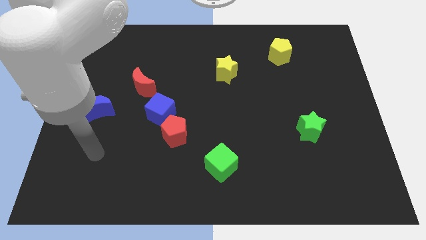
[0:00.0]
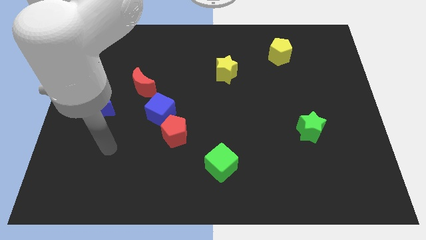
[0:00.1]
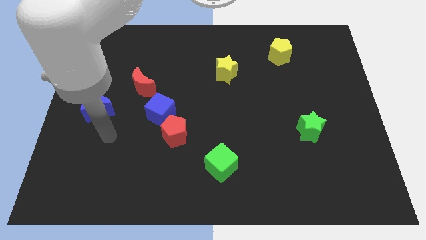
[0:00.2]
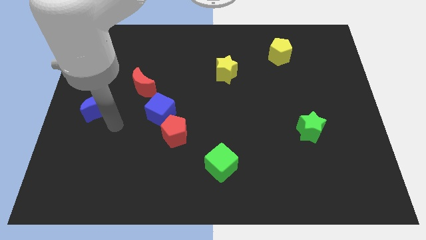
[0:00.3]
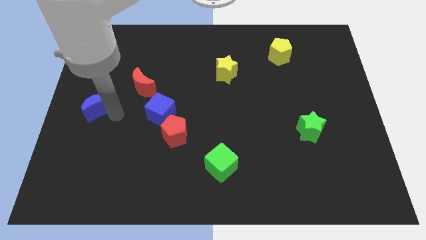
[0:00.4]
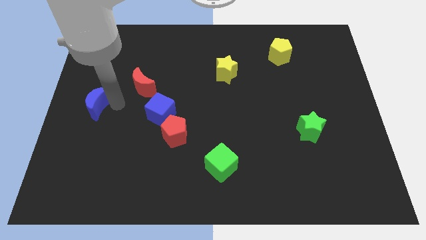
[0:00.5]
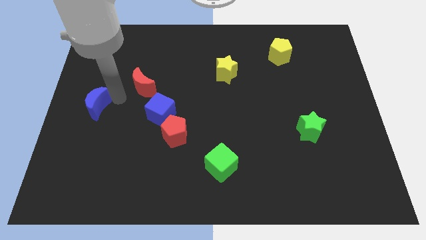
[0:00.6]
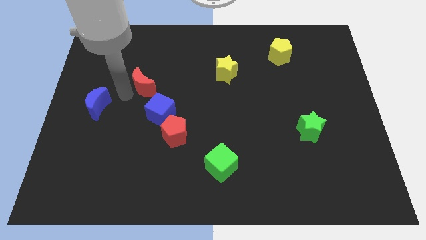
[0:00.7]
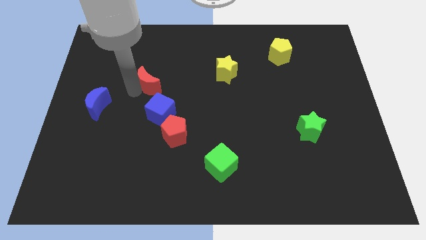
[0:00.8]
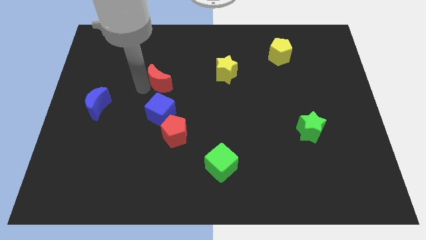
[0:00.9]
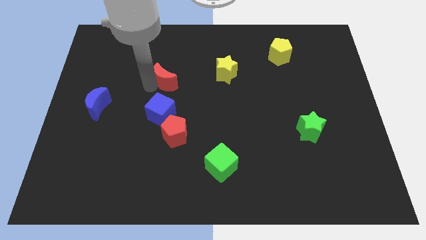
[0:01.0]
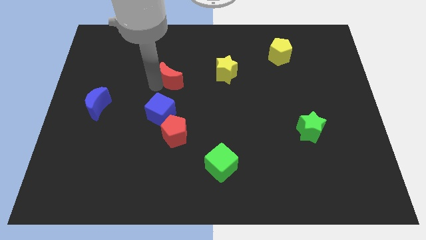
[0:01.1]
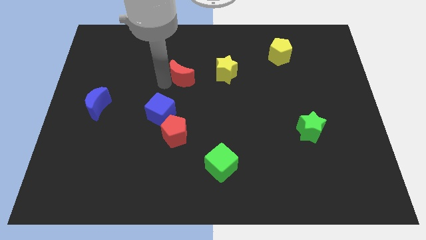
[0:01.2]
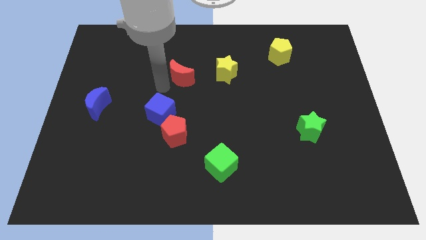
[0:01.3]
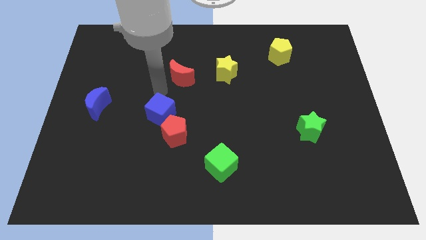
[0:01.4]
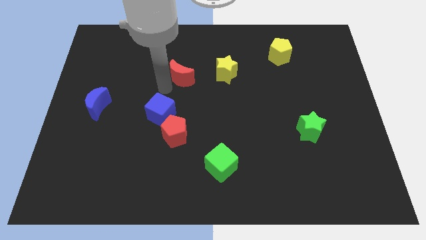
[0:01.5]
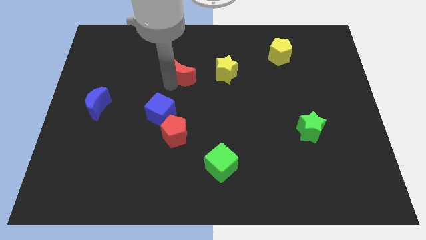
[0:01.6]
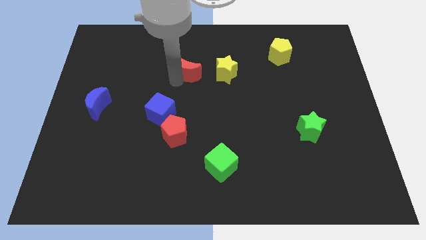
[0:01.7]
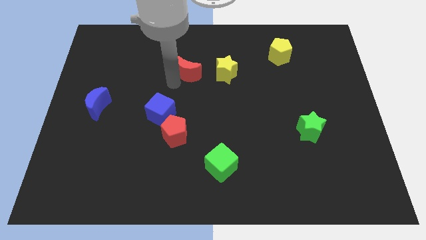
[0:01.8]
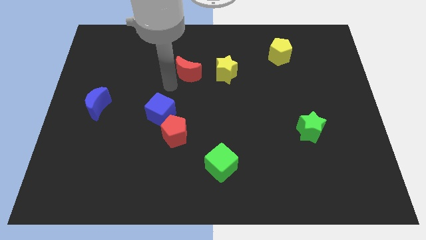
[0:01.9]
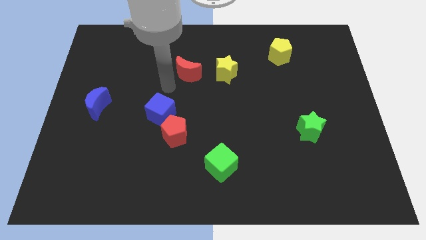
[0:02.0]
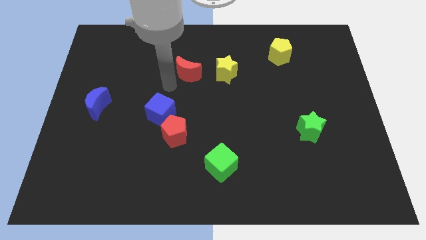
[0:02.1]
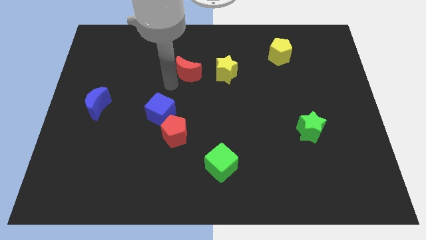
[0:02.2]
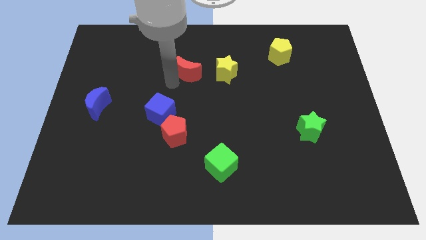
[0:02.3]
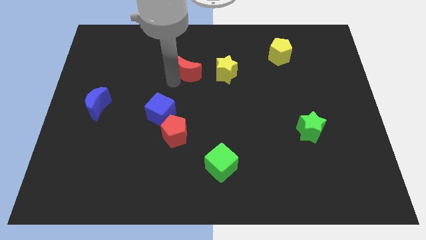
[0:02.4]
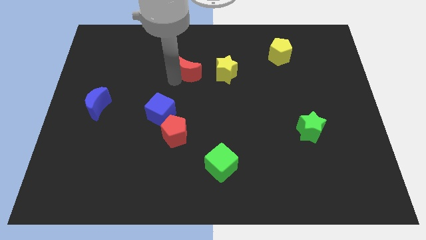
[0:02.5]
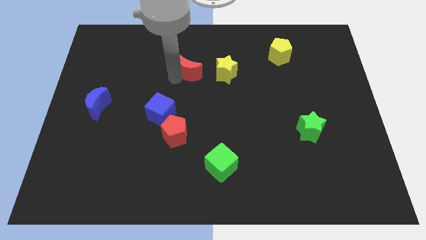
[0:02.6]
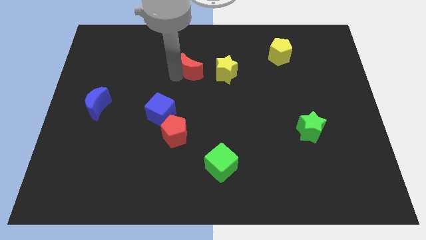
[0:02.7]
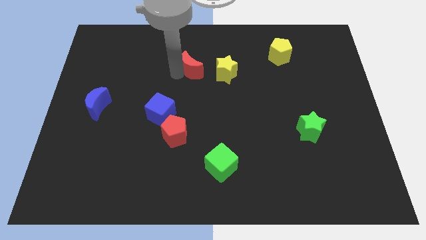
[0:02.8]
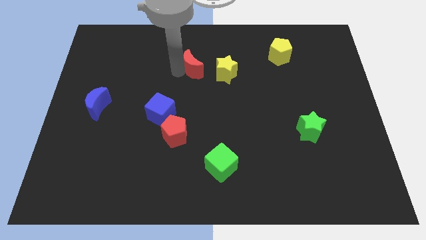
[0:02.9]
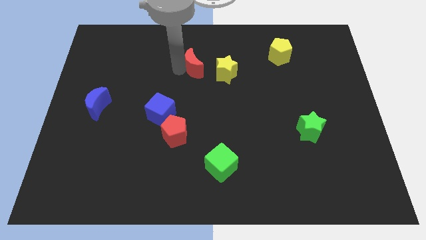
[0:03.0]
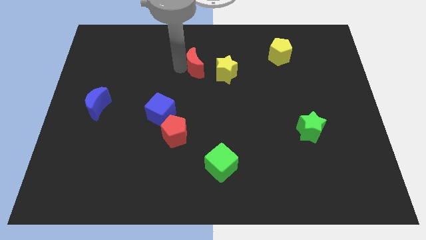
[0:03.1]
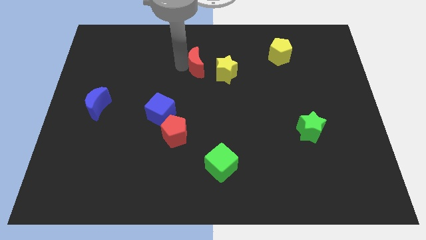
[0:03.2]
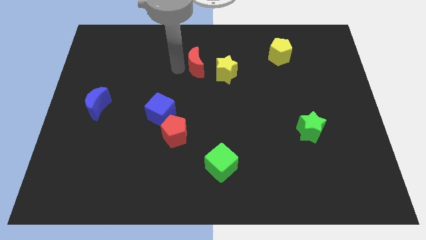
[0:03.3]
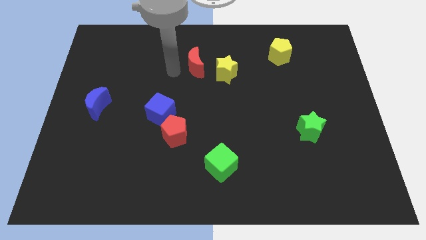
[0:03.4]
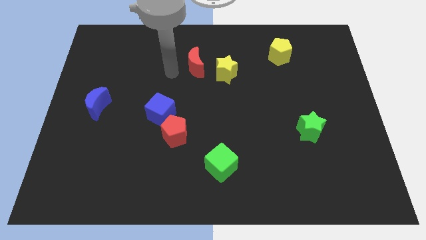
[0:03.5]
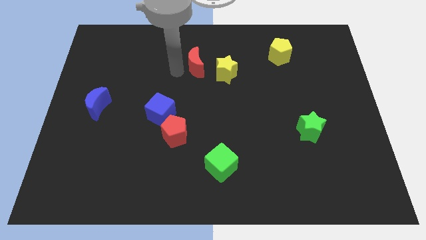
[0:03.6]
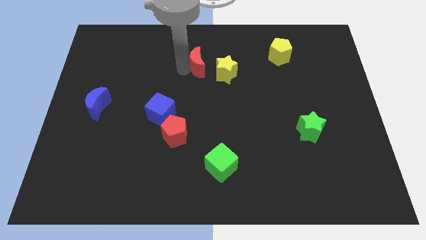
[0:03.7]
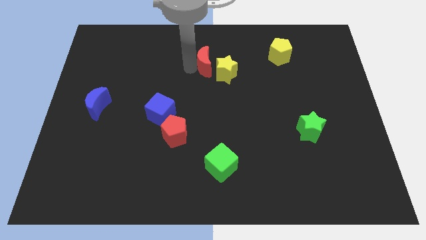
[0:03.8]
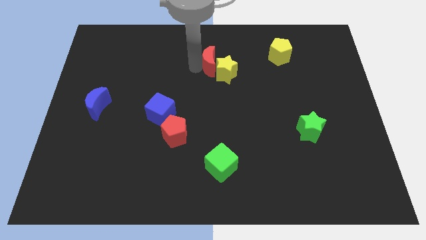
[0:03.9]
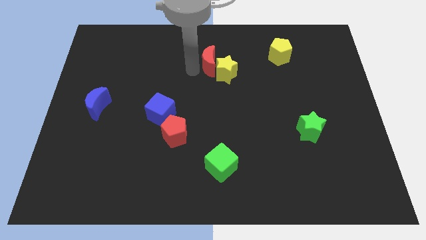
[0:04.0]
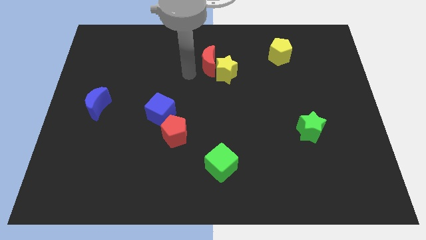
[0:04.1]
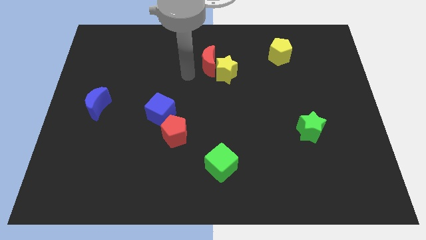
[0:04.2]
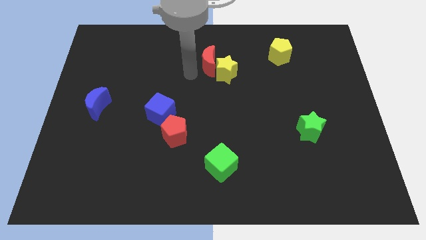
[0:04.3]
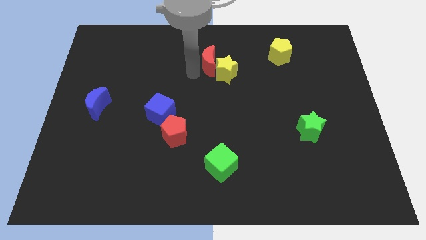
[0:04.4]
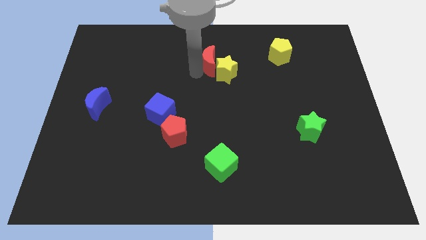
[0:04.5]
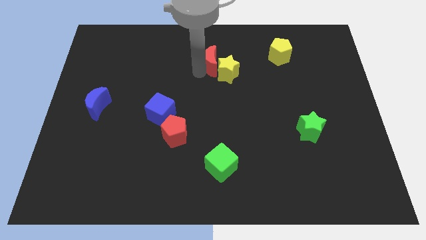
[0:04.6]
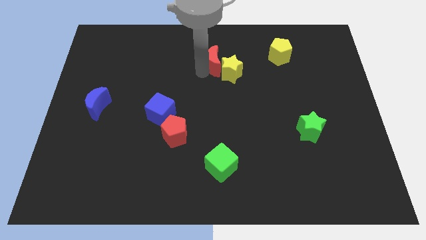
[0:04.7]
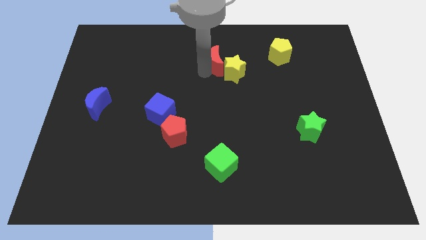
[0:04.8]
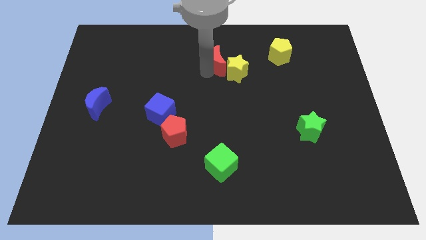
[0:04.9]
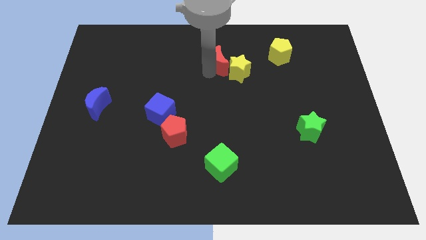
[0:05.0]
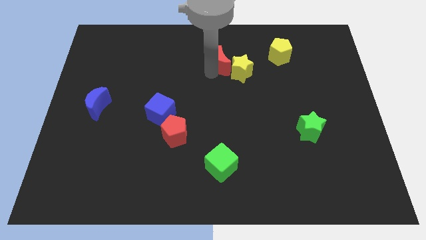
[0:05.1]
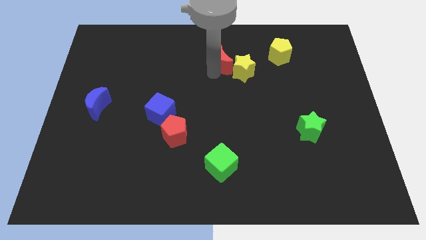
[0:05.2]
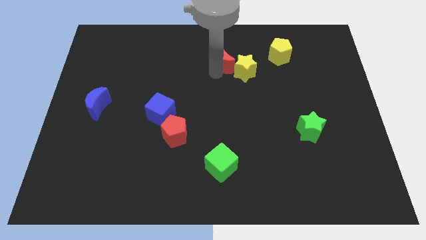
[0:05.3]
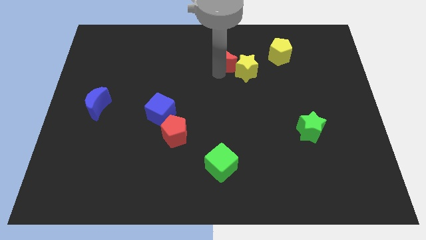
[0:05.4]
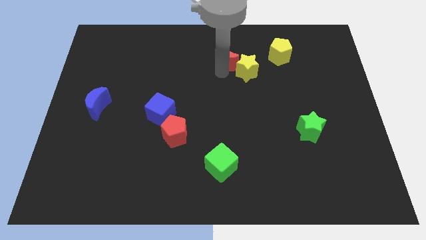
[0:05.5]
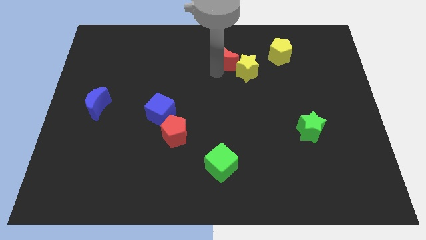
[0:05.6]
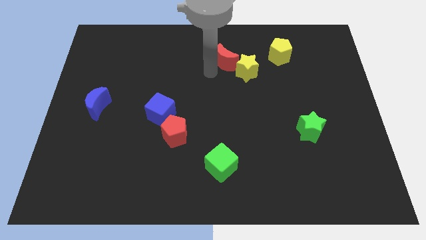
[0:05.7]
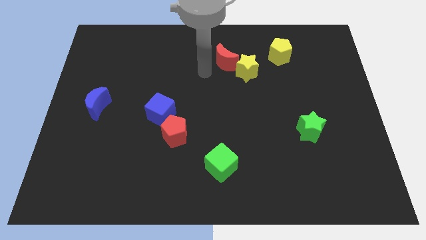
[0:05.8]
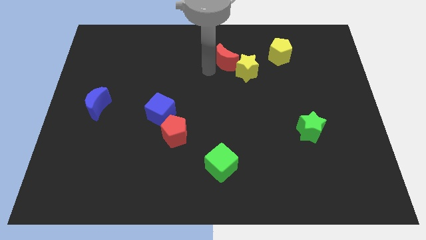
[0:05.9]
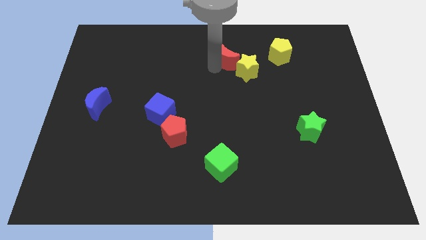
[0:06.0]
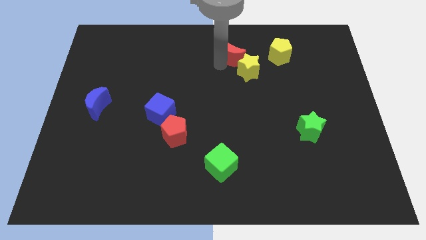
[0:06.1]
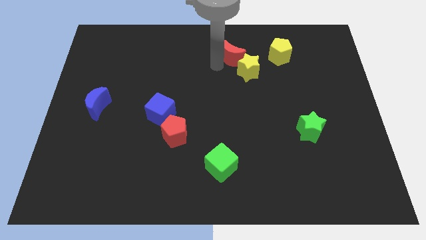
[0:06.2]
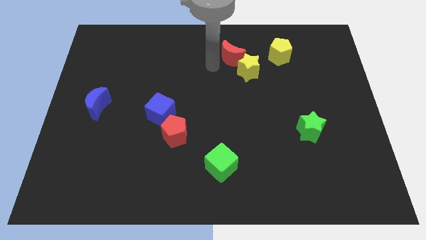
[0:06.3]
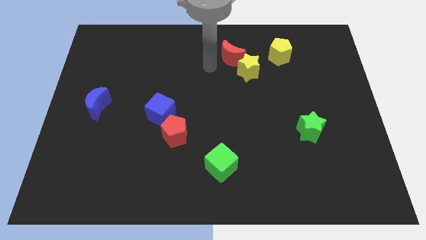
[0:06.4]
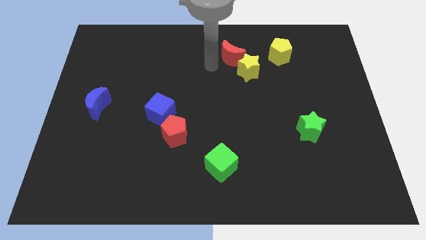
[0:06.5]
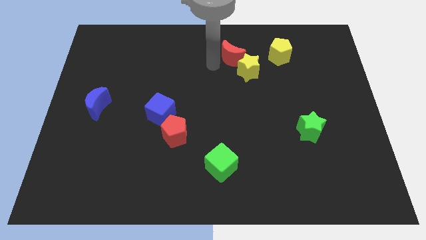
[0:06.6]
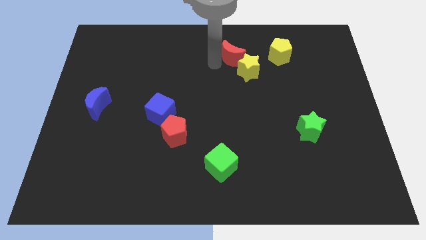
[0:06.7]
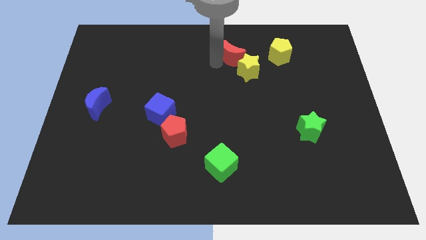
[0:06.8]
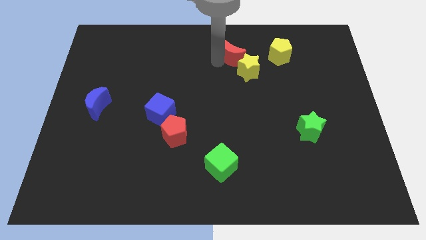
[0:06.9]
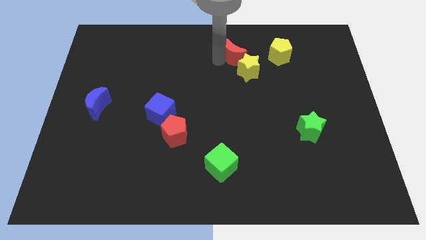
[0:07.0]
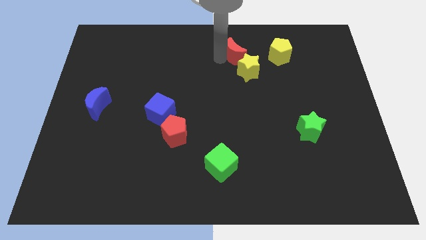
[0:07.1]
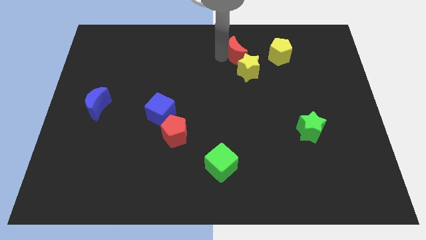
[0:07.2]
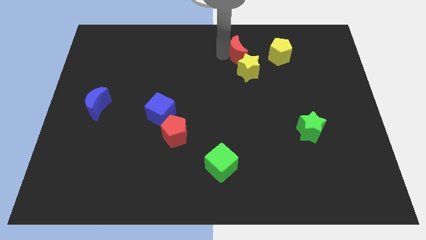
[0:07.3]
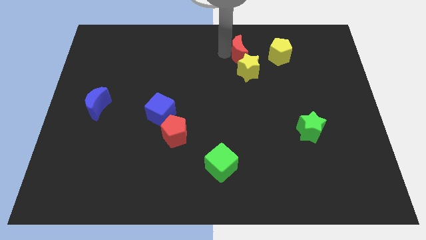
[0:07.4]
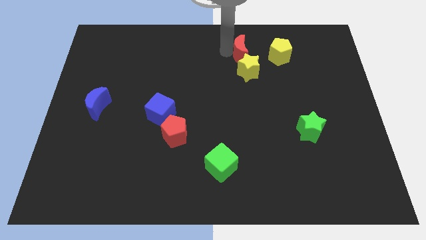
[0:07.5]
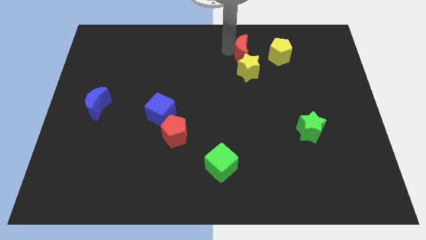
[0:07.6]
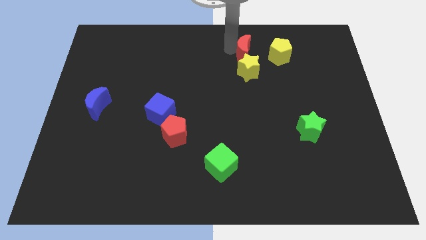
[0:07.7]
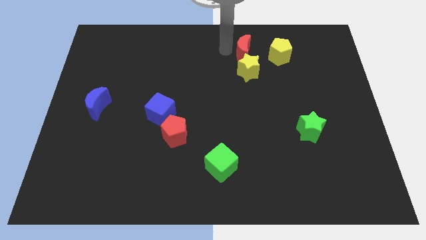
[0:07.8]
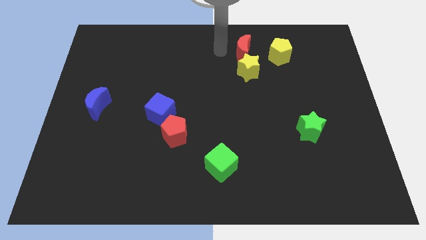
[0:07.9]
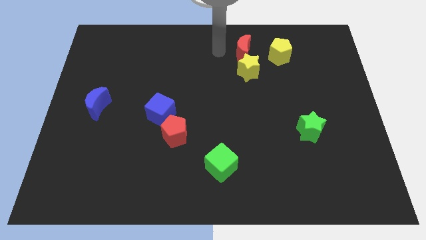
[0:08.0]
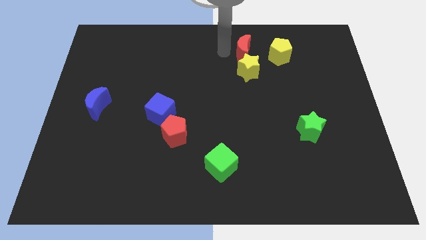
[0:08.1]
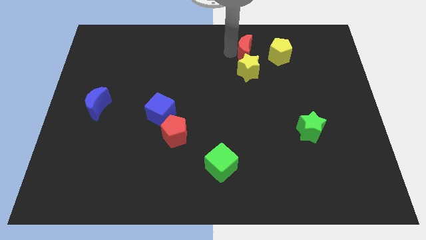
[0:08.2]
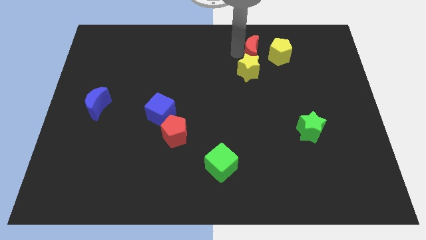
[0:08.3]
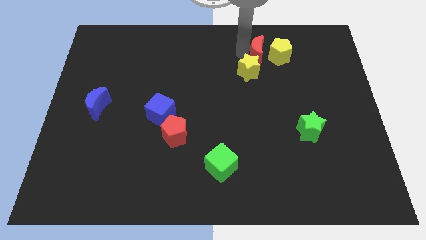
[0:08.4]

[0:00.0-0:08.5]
push the red moon close to the yellow pentagon
